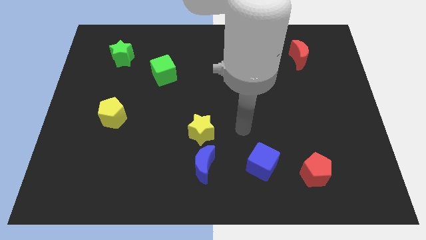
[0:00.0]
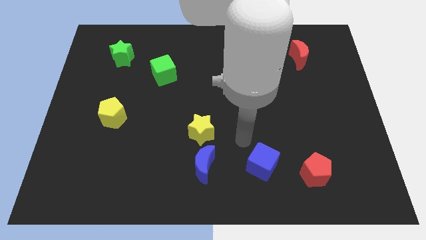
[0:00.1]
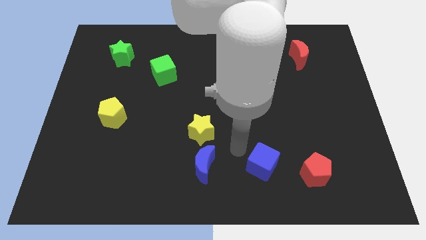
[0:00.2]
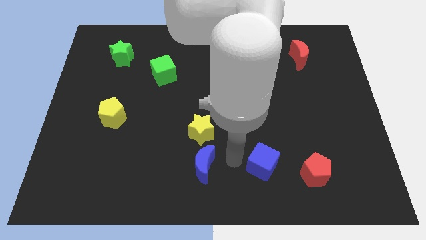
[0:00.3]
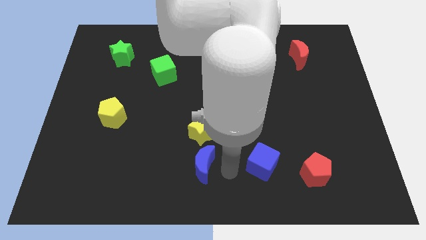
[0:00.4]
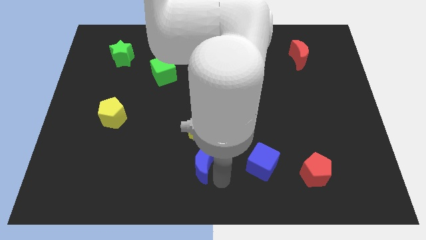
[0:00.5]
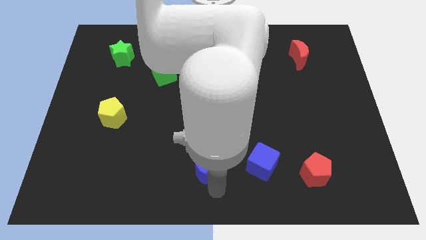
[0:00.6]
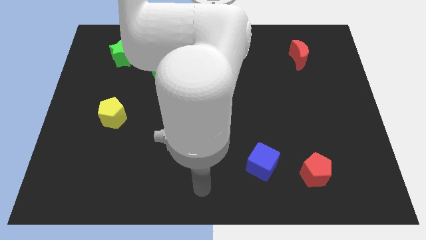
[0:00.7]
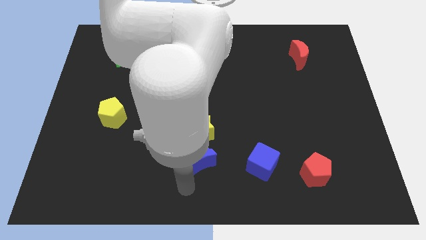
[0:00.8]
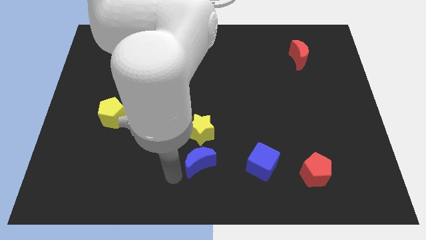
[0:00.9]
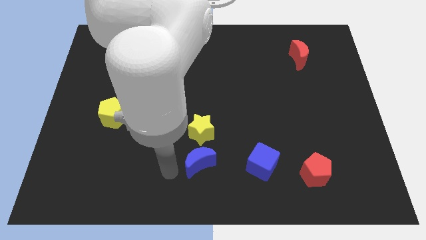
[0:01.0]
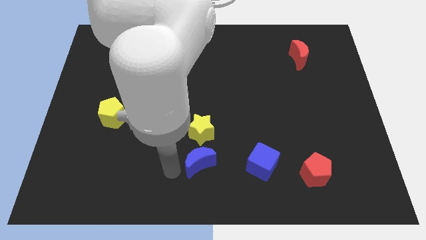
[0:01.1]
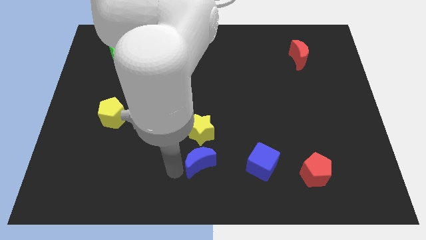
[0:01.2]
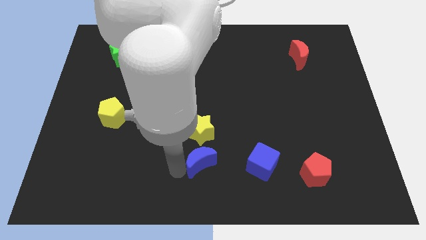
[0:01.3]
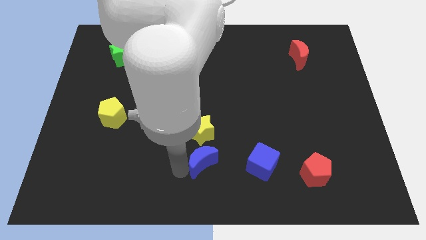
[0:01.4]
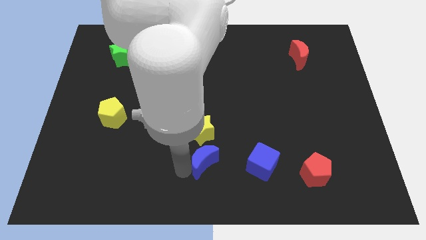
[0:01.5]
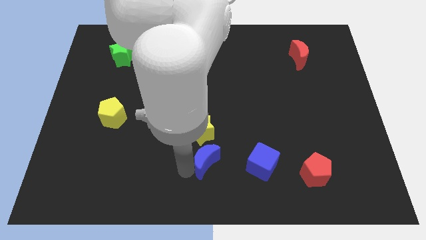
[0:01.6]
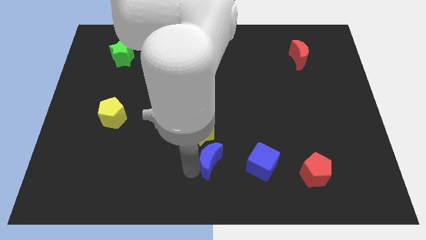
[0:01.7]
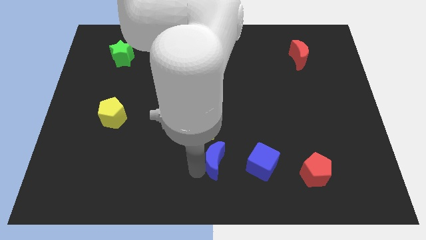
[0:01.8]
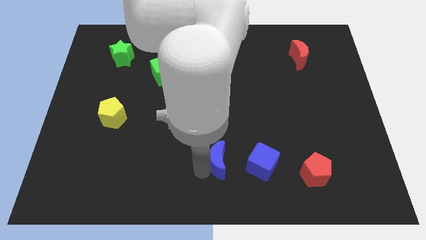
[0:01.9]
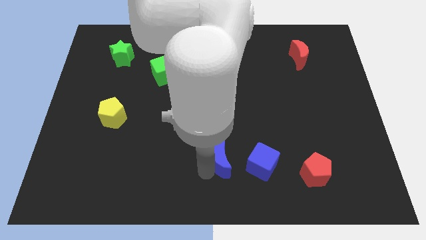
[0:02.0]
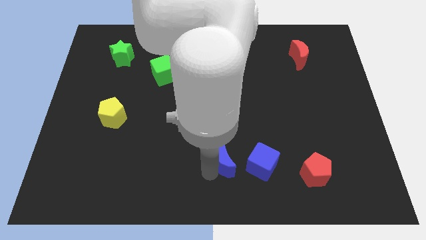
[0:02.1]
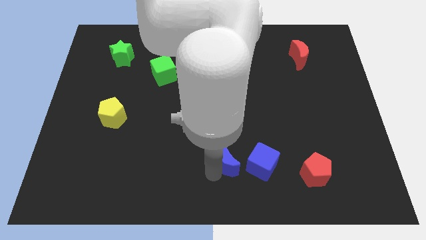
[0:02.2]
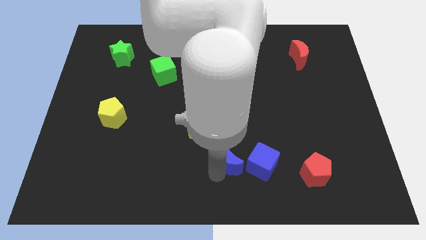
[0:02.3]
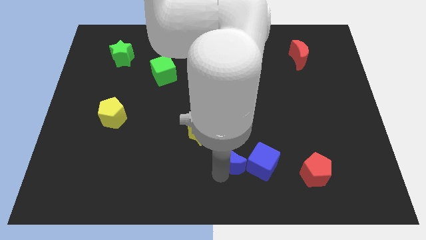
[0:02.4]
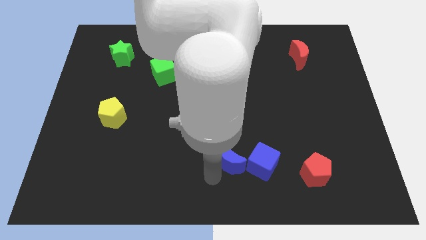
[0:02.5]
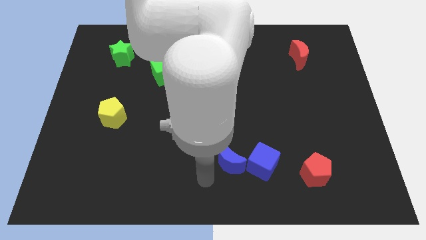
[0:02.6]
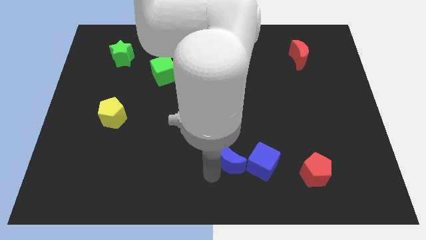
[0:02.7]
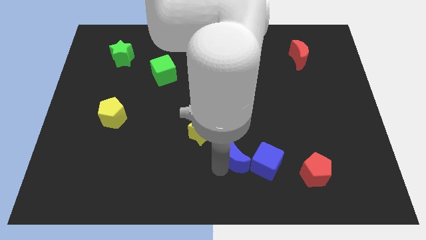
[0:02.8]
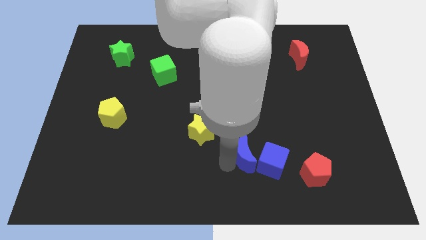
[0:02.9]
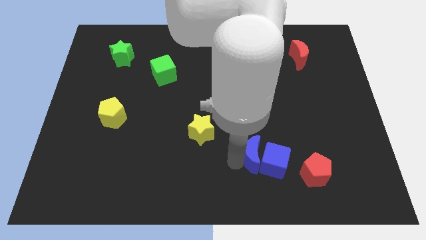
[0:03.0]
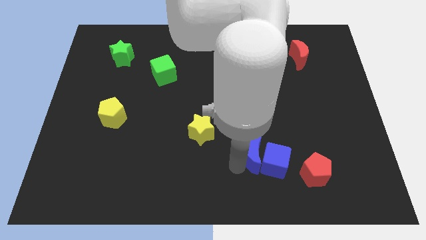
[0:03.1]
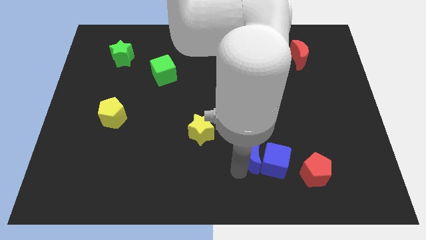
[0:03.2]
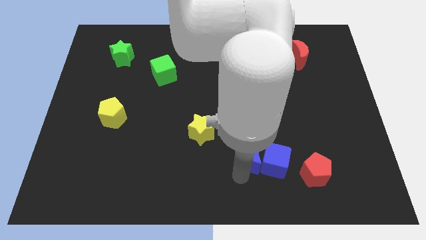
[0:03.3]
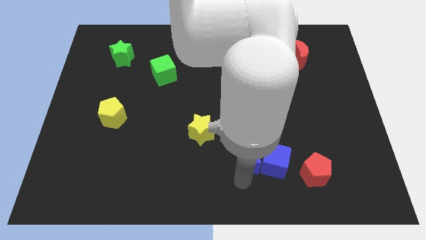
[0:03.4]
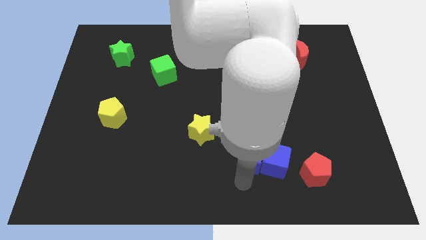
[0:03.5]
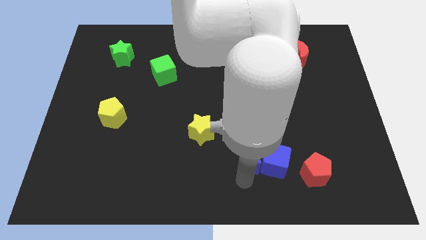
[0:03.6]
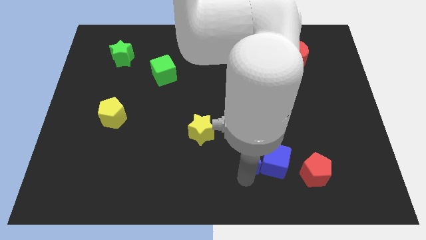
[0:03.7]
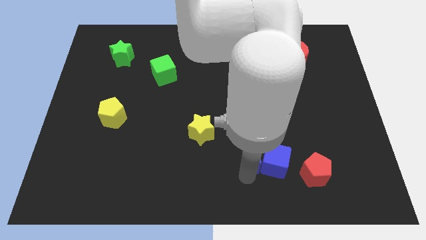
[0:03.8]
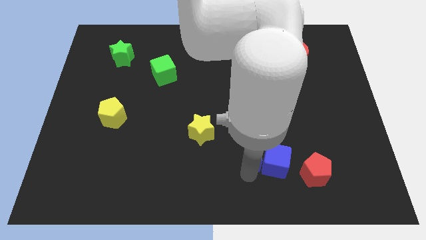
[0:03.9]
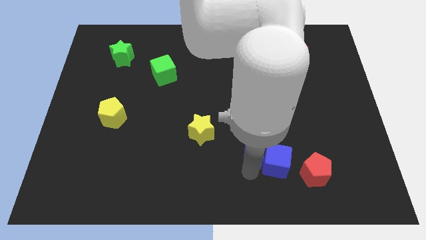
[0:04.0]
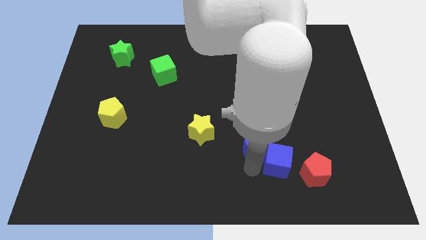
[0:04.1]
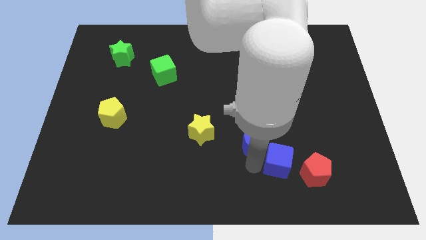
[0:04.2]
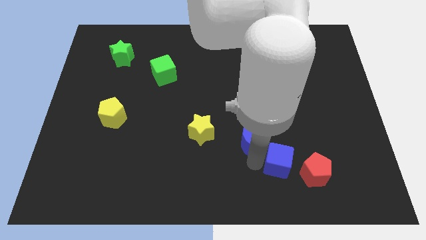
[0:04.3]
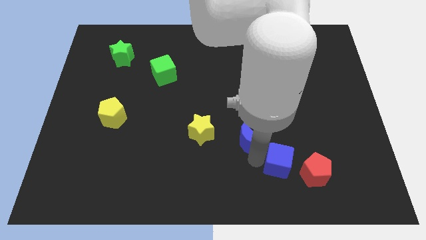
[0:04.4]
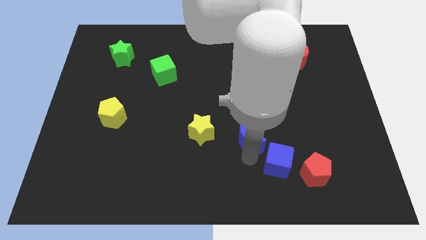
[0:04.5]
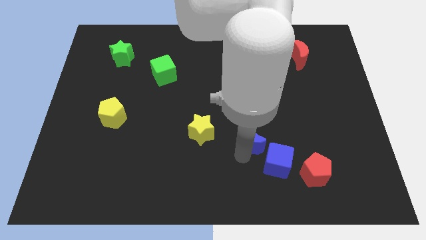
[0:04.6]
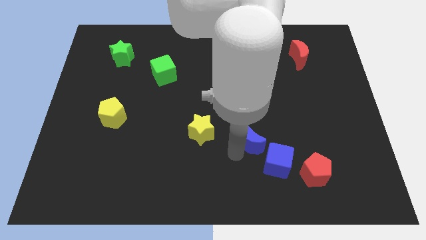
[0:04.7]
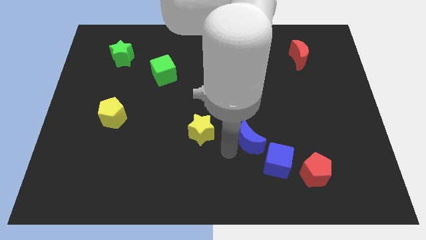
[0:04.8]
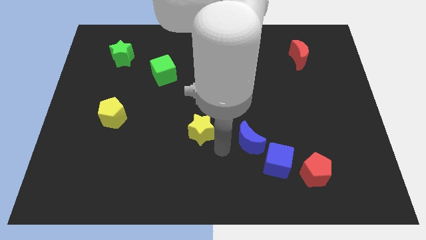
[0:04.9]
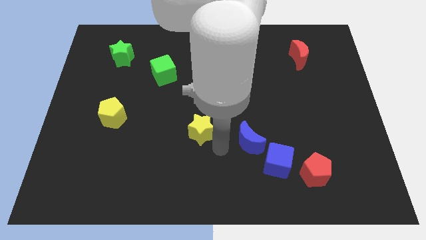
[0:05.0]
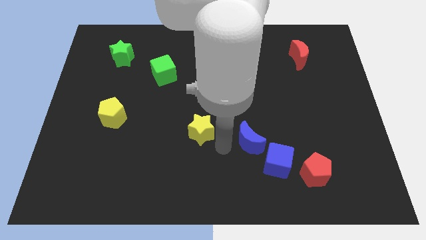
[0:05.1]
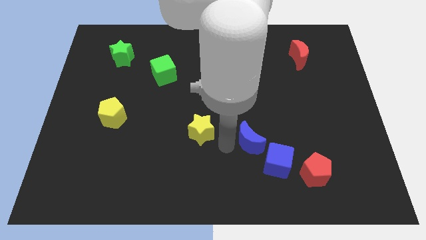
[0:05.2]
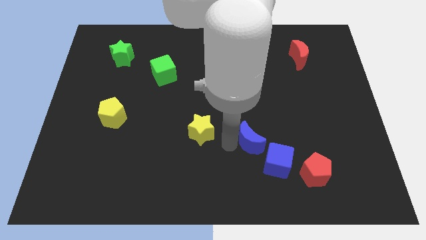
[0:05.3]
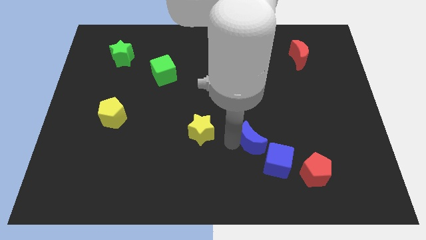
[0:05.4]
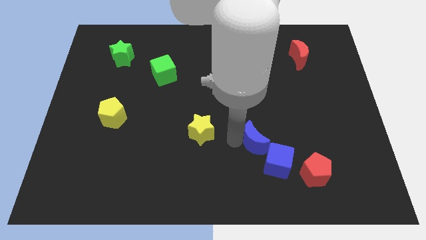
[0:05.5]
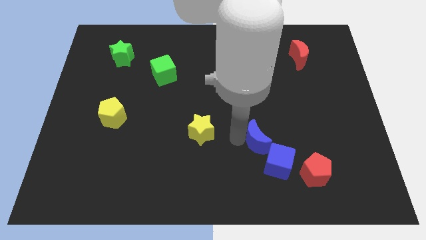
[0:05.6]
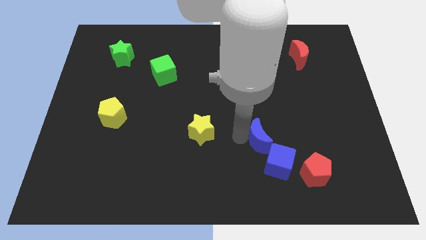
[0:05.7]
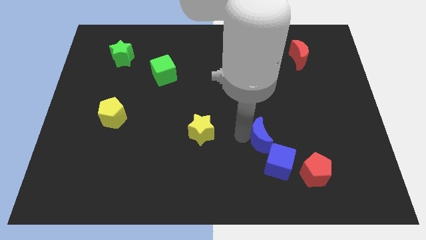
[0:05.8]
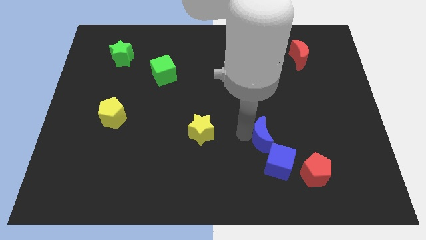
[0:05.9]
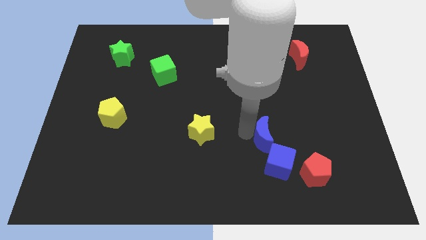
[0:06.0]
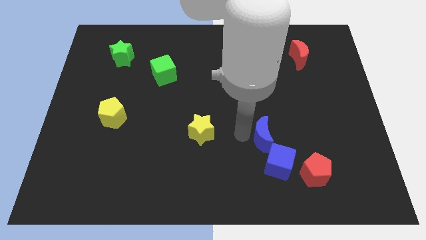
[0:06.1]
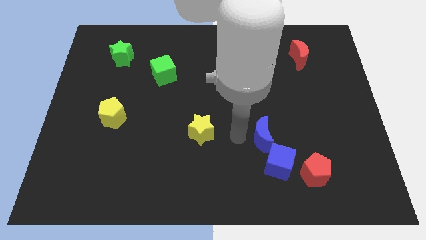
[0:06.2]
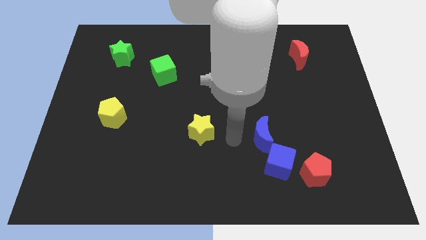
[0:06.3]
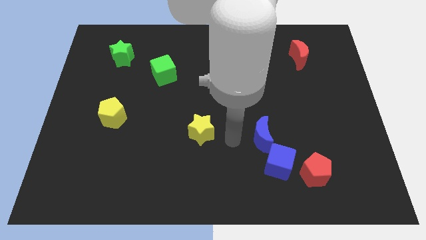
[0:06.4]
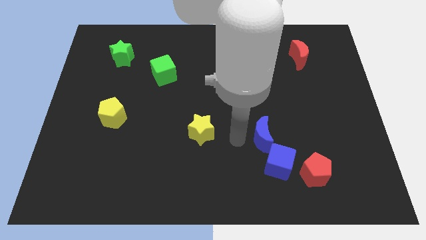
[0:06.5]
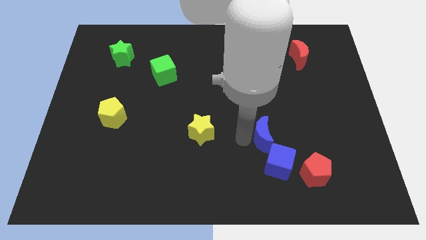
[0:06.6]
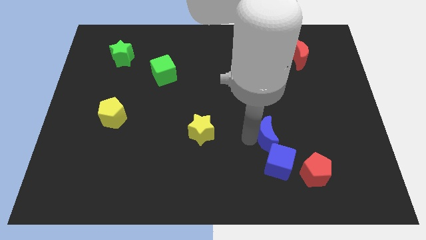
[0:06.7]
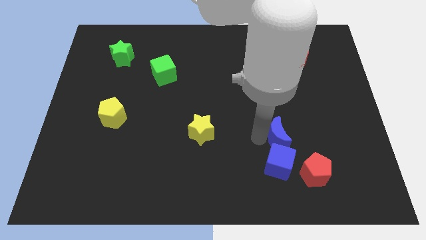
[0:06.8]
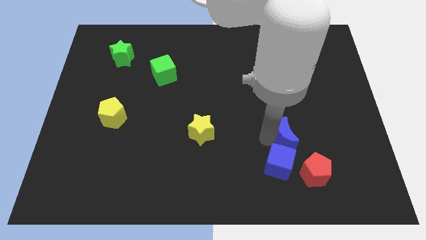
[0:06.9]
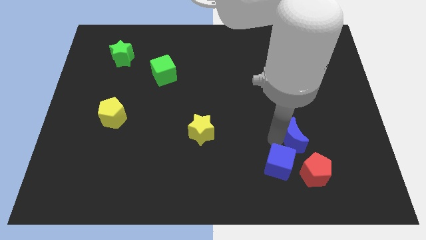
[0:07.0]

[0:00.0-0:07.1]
slide the blue moon to the top of the red pentagon
